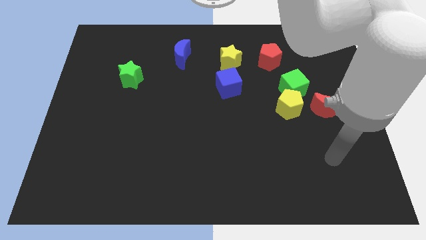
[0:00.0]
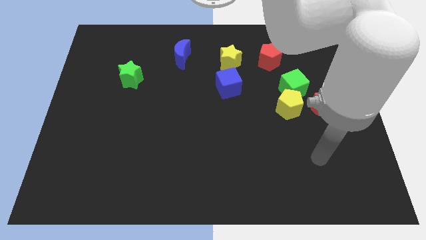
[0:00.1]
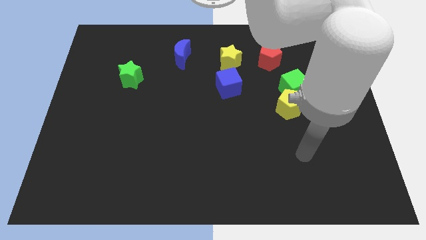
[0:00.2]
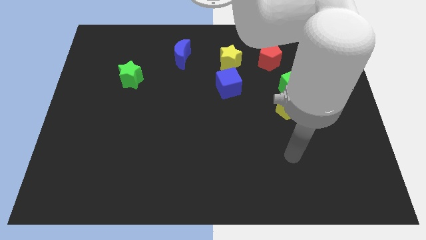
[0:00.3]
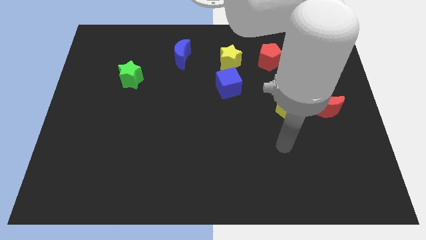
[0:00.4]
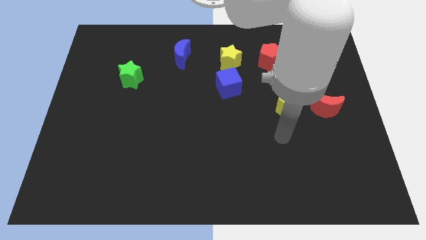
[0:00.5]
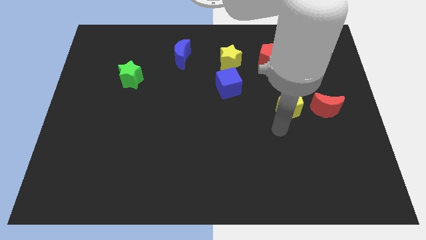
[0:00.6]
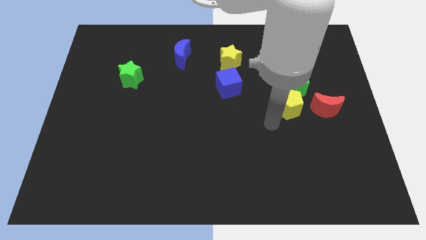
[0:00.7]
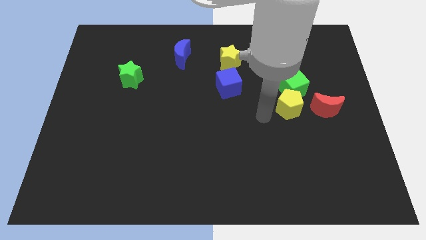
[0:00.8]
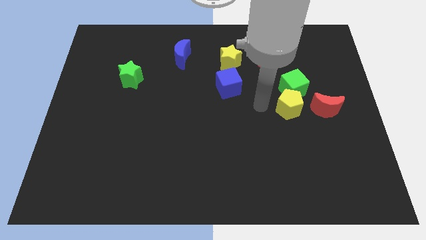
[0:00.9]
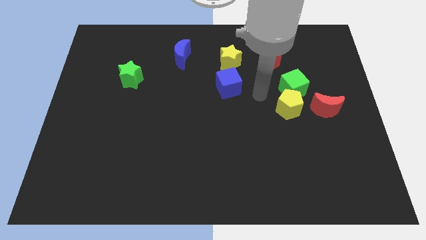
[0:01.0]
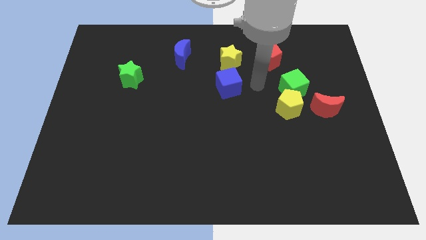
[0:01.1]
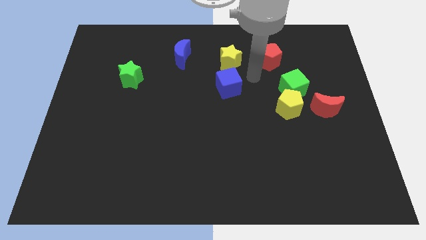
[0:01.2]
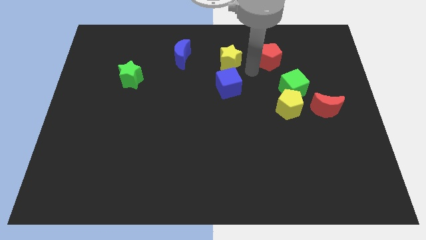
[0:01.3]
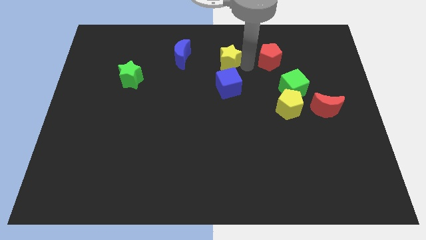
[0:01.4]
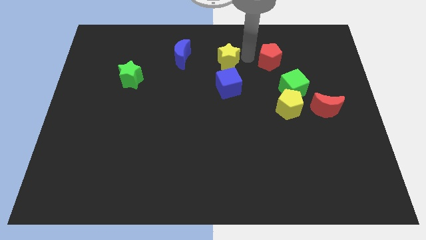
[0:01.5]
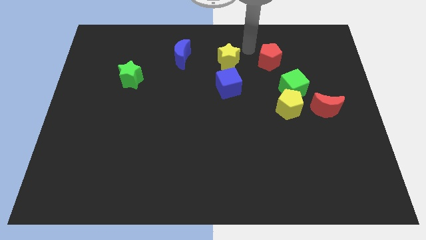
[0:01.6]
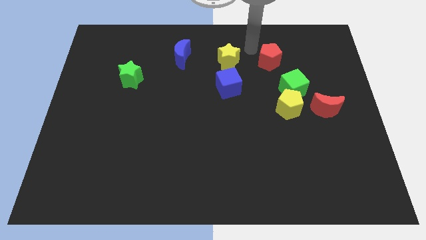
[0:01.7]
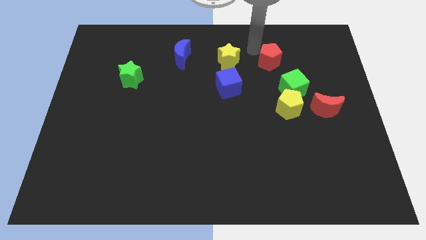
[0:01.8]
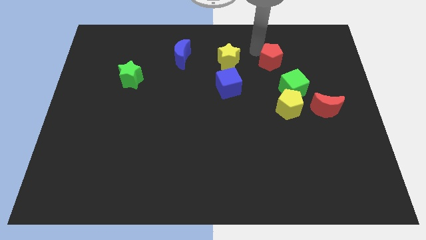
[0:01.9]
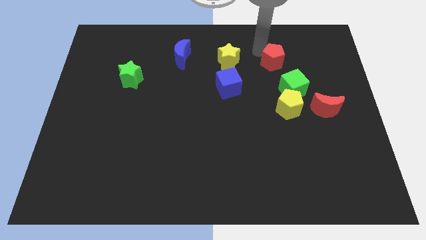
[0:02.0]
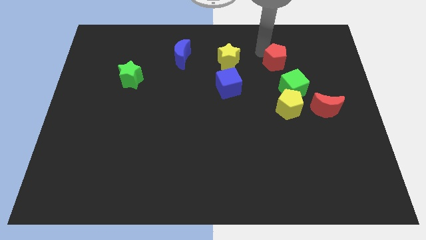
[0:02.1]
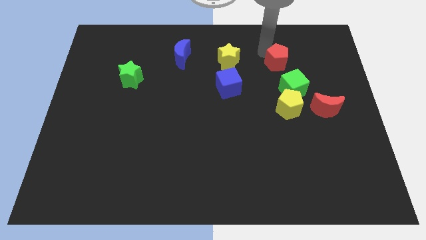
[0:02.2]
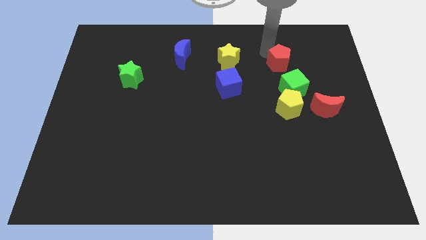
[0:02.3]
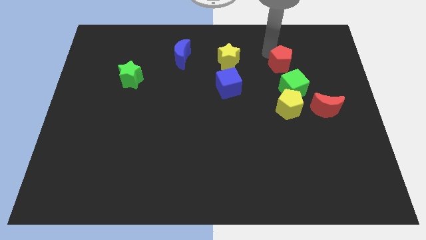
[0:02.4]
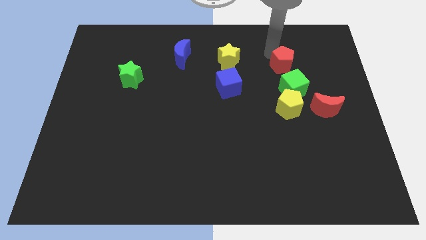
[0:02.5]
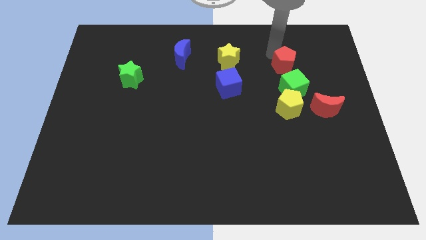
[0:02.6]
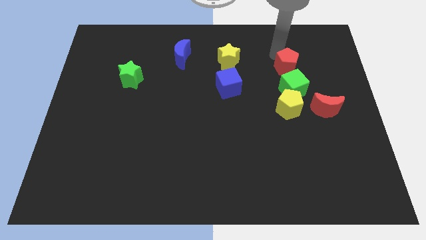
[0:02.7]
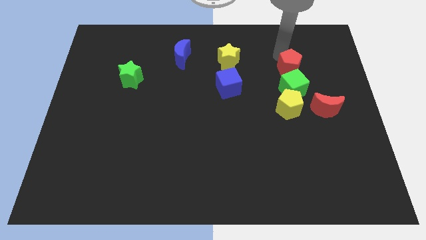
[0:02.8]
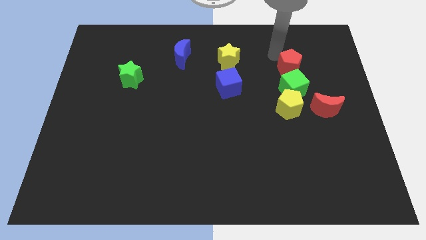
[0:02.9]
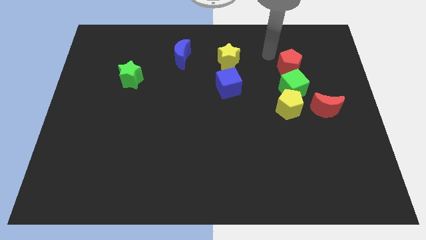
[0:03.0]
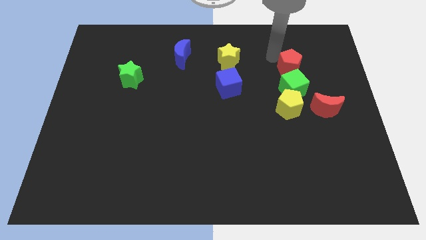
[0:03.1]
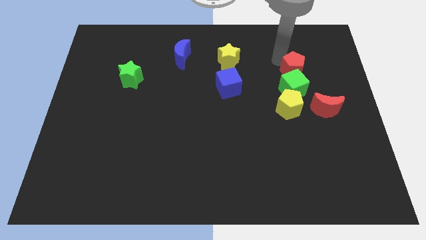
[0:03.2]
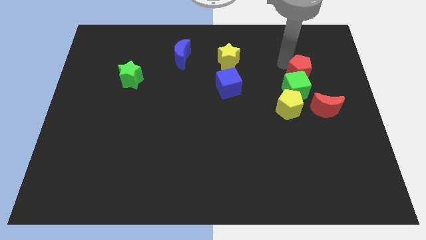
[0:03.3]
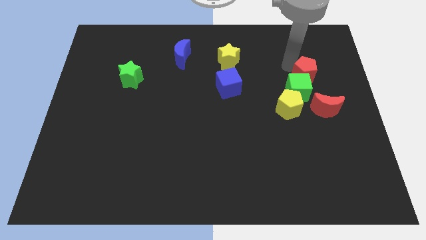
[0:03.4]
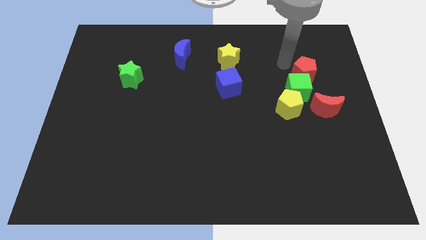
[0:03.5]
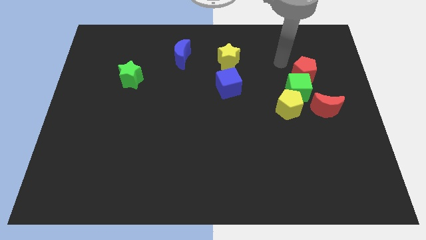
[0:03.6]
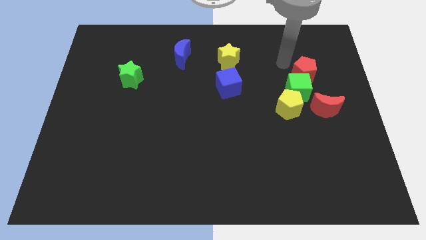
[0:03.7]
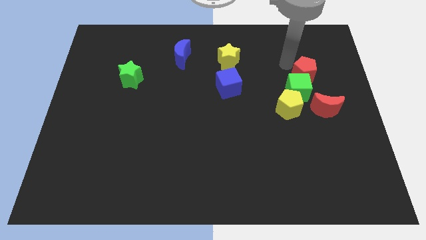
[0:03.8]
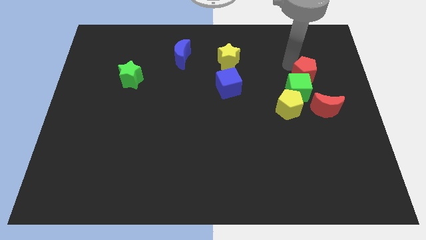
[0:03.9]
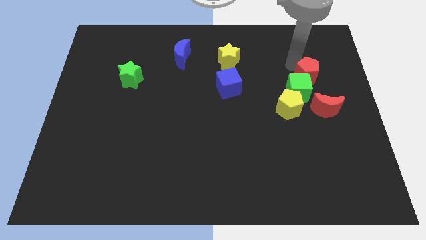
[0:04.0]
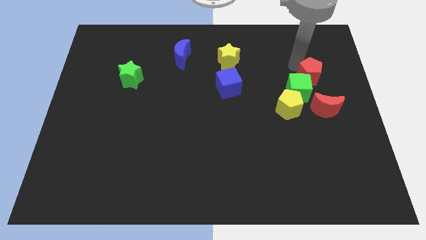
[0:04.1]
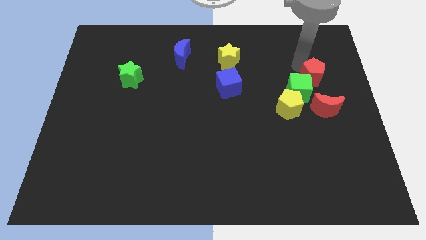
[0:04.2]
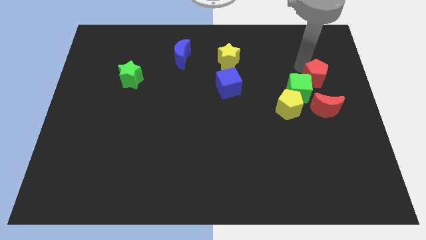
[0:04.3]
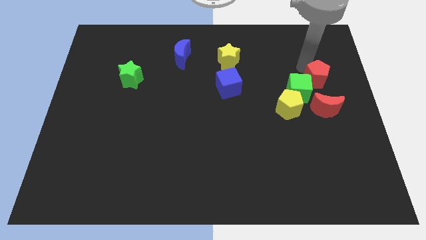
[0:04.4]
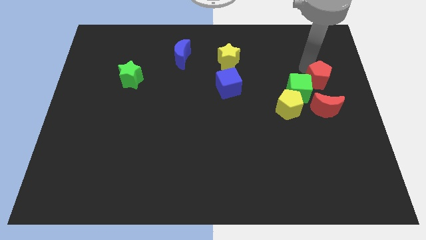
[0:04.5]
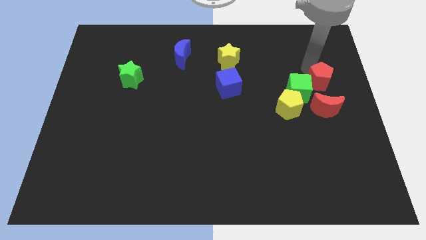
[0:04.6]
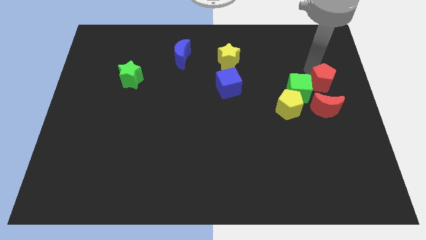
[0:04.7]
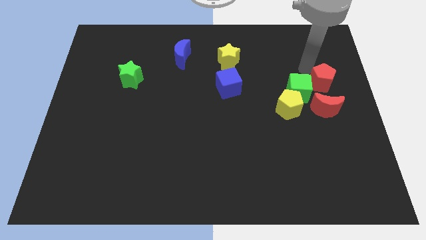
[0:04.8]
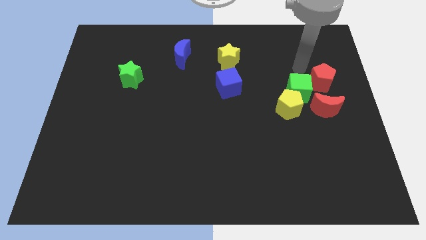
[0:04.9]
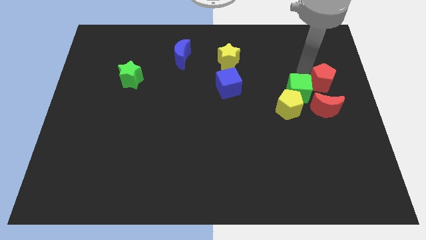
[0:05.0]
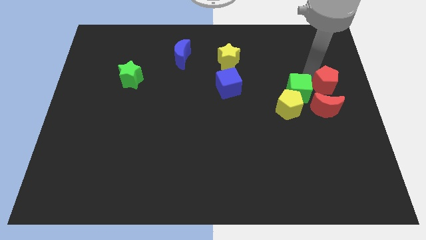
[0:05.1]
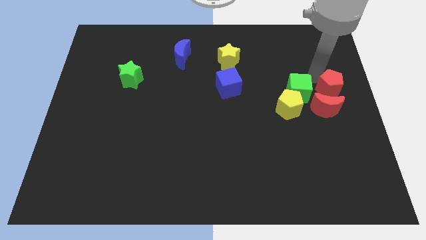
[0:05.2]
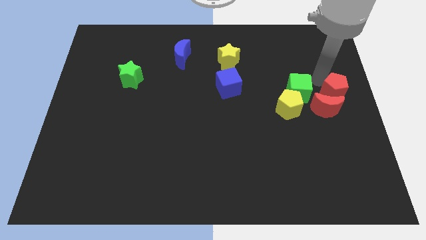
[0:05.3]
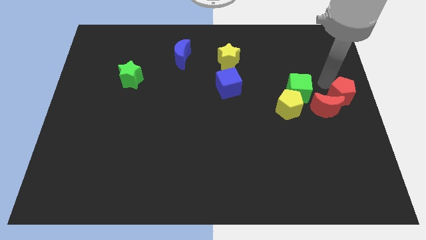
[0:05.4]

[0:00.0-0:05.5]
push the red pentagon just right of the yellow pentagon

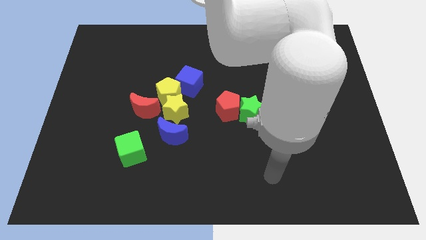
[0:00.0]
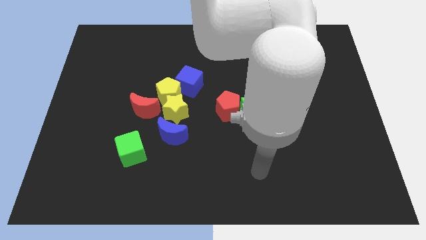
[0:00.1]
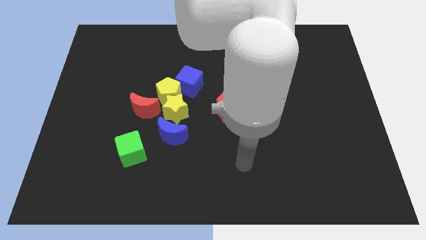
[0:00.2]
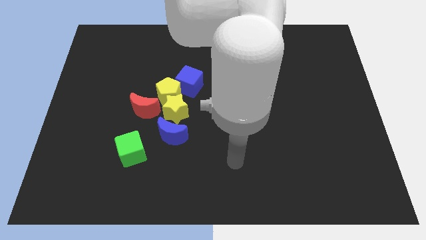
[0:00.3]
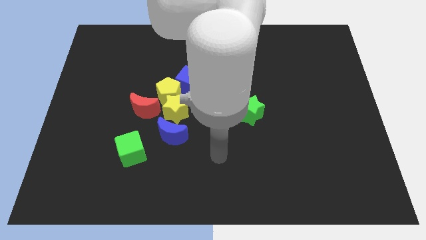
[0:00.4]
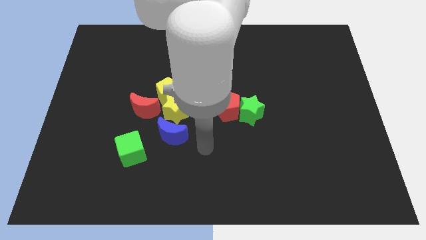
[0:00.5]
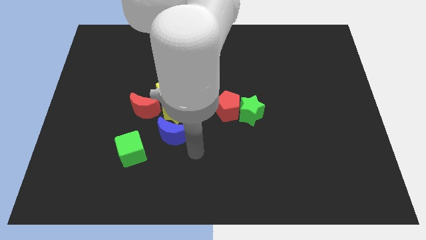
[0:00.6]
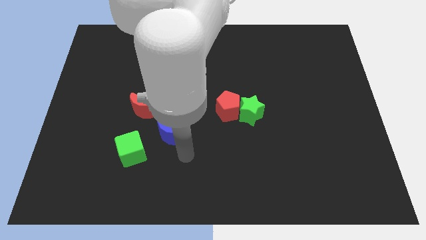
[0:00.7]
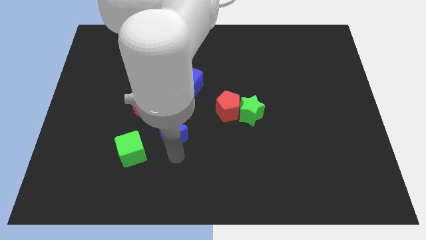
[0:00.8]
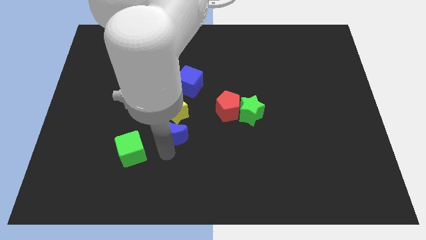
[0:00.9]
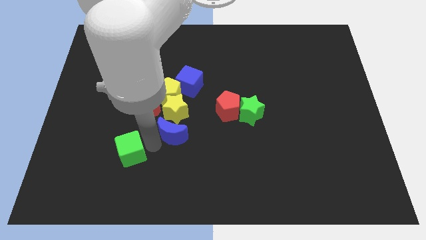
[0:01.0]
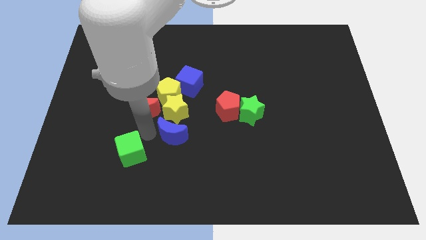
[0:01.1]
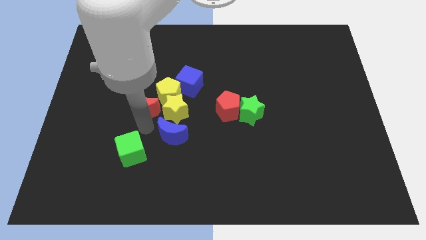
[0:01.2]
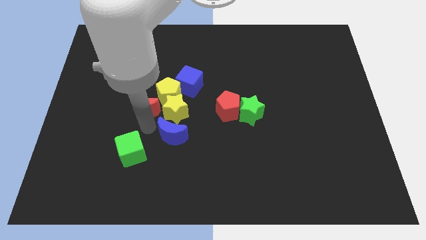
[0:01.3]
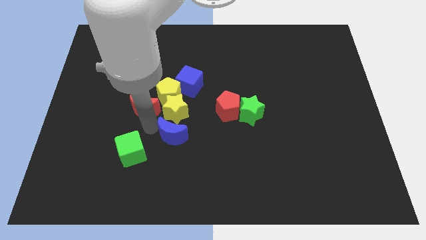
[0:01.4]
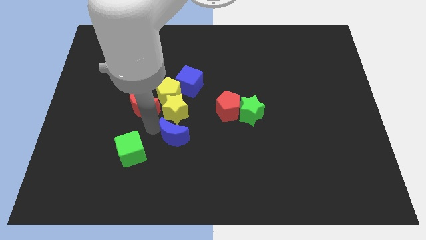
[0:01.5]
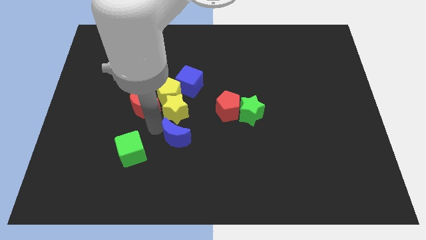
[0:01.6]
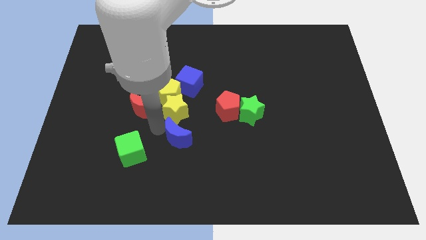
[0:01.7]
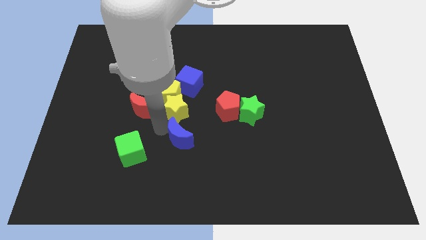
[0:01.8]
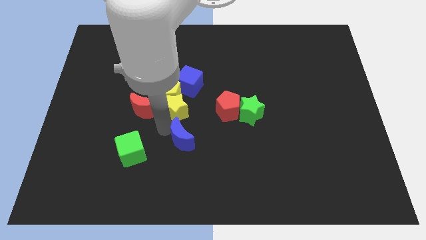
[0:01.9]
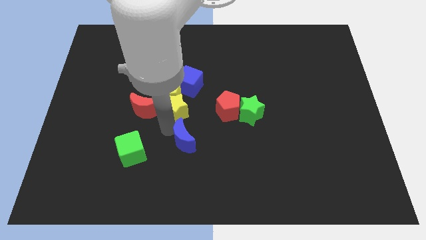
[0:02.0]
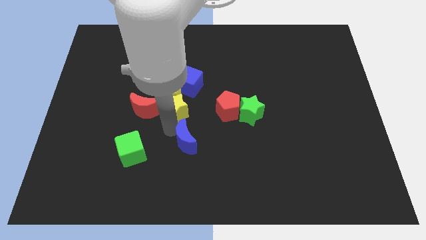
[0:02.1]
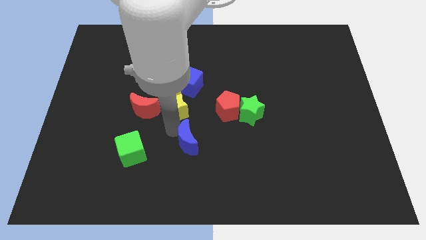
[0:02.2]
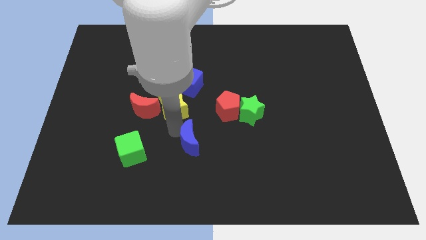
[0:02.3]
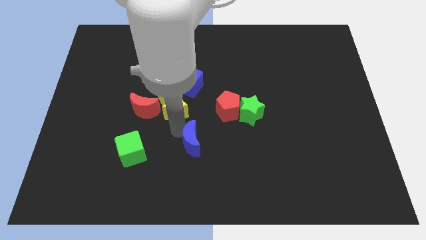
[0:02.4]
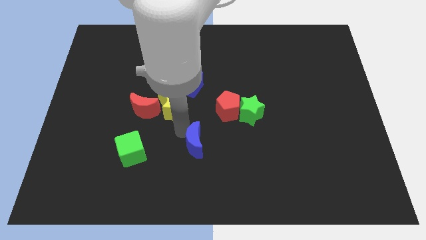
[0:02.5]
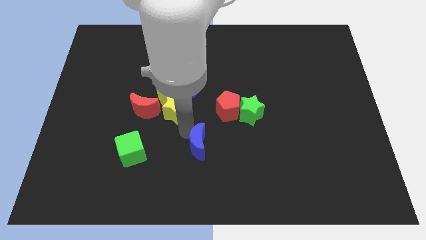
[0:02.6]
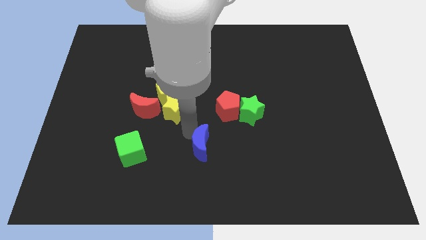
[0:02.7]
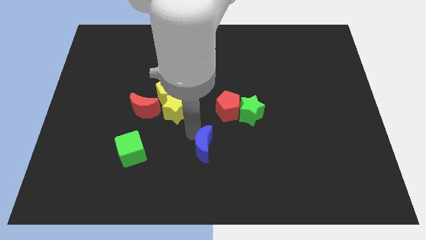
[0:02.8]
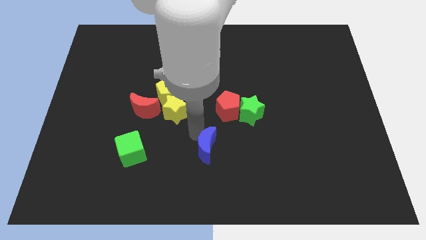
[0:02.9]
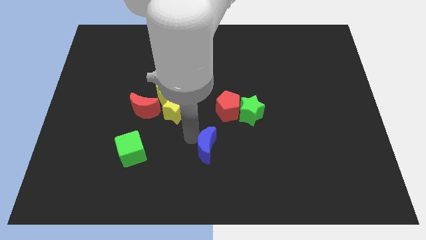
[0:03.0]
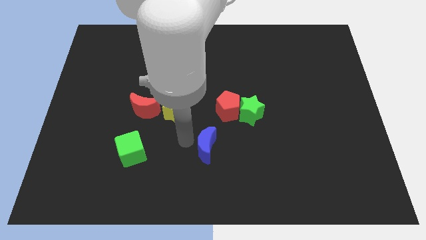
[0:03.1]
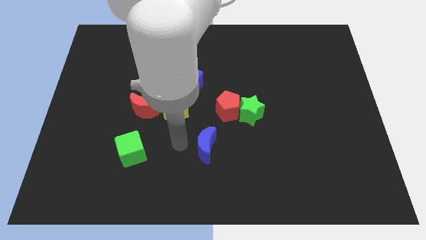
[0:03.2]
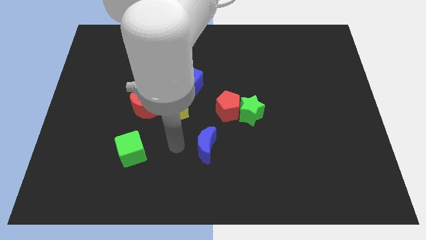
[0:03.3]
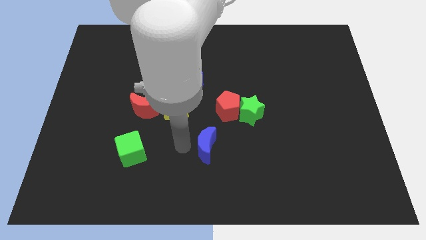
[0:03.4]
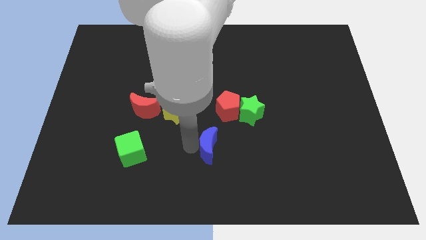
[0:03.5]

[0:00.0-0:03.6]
put the blue moon below the red pentagon
